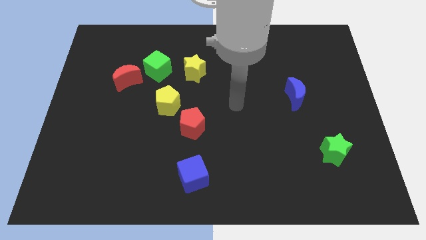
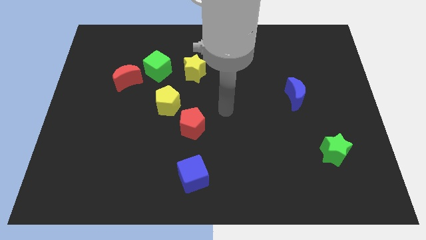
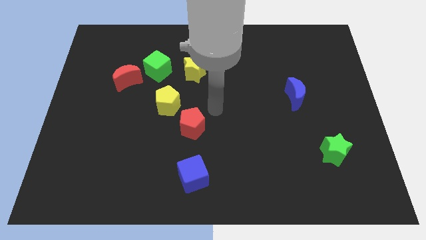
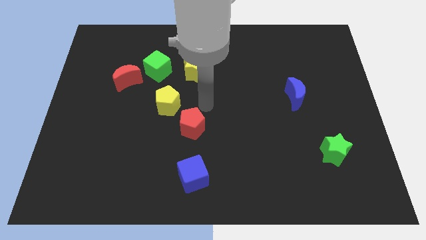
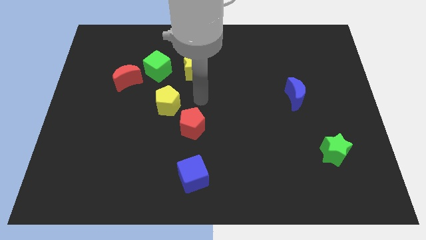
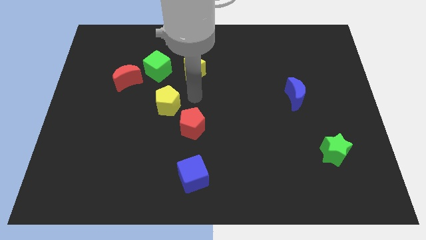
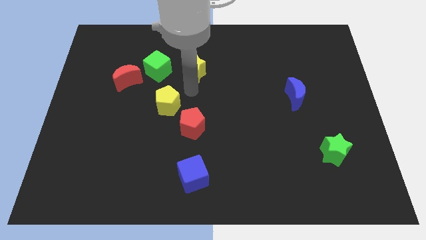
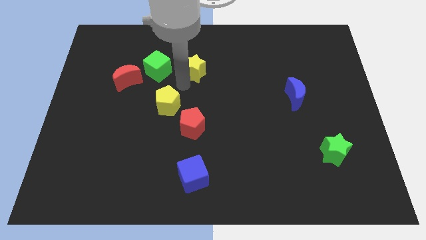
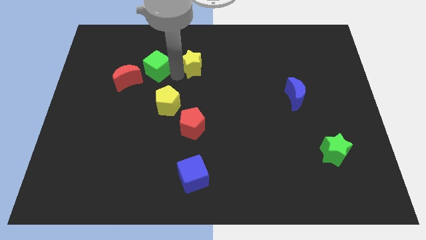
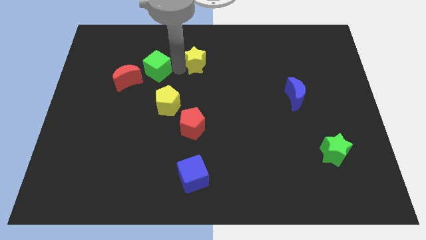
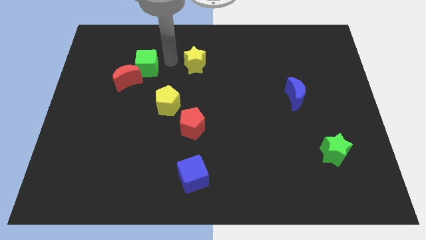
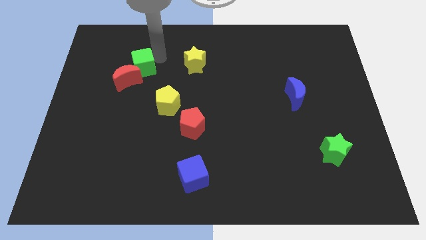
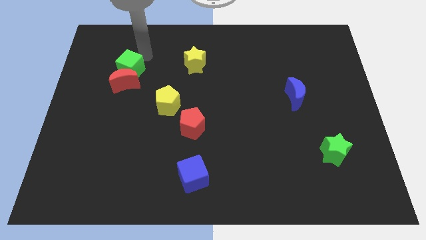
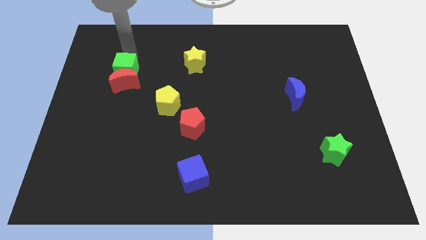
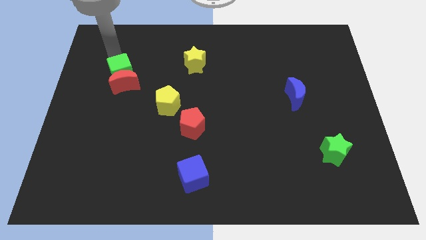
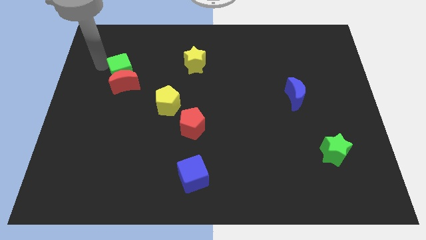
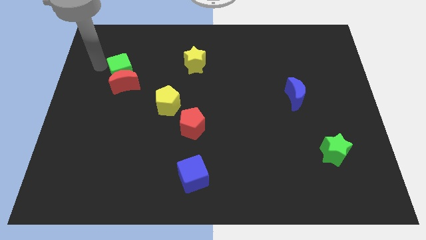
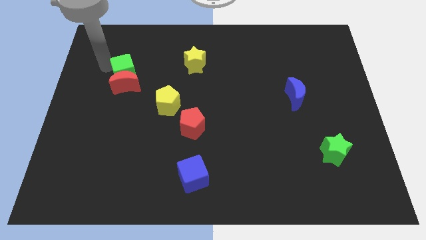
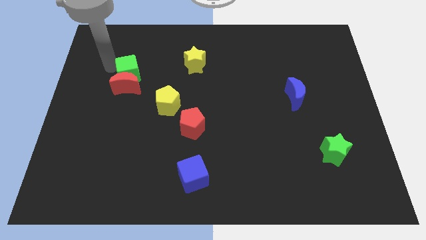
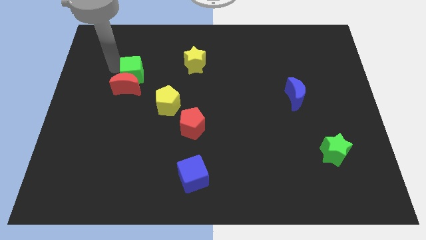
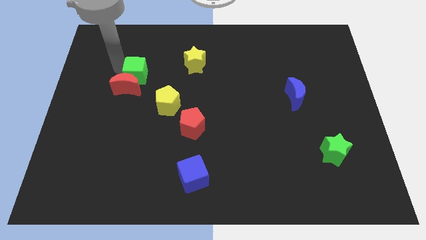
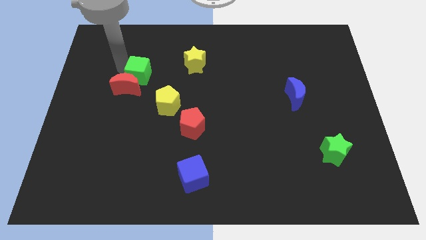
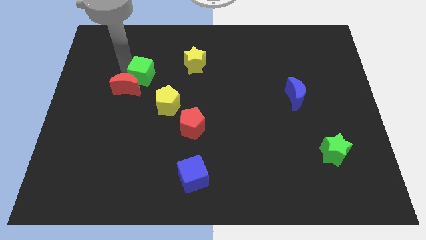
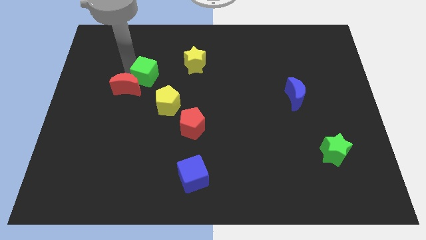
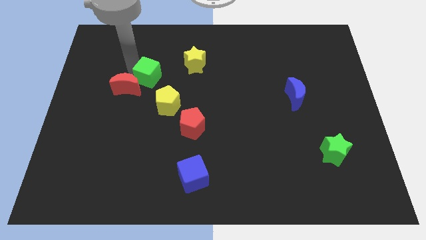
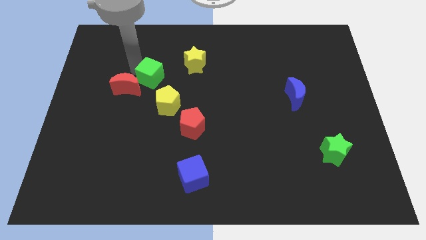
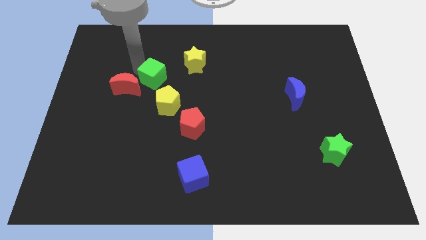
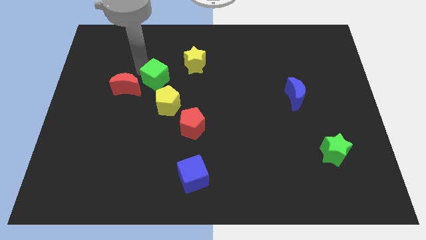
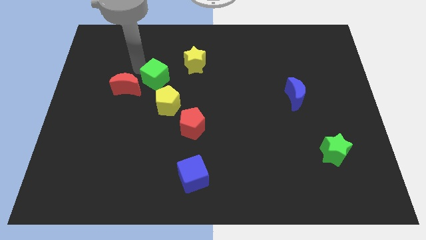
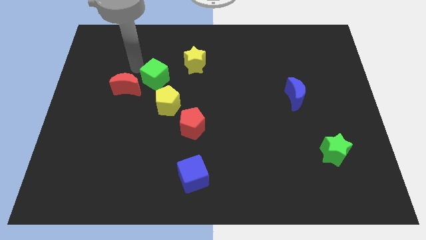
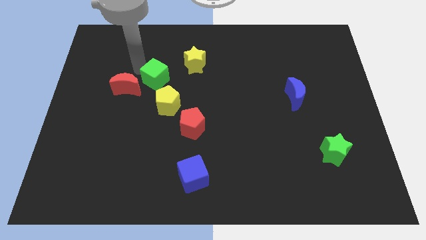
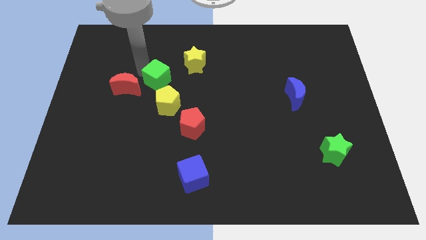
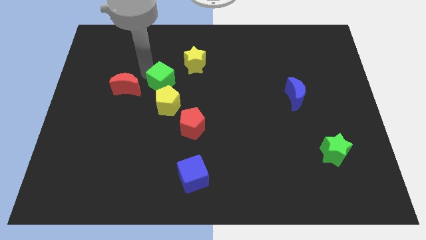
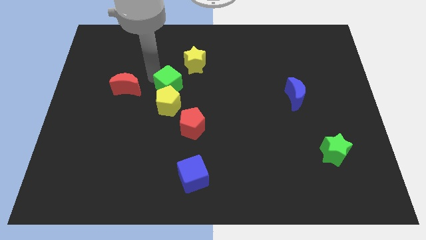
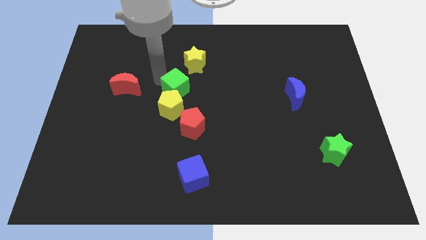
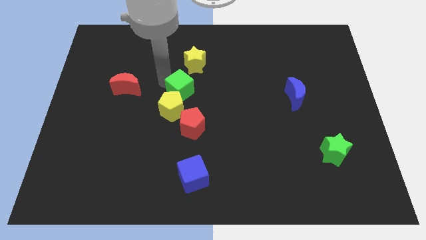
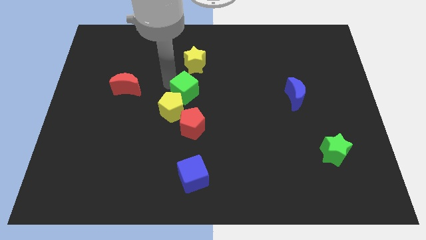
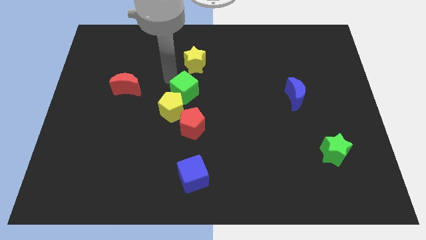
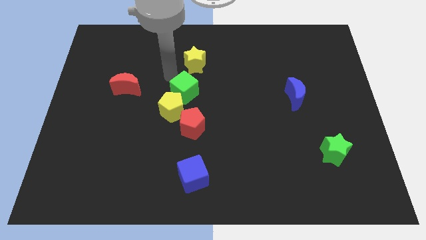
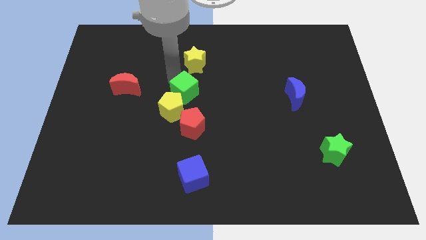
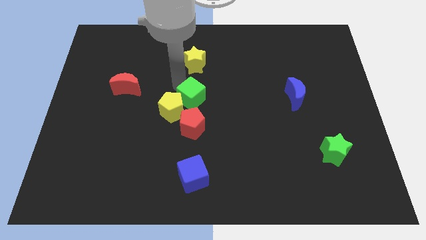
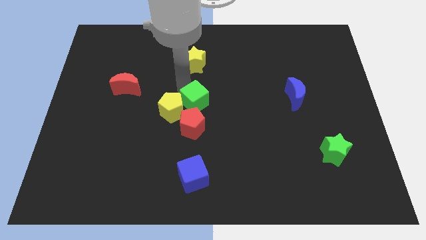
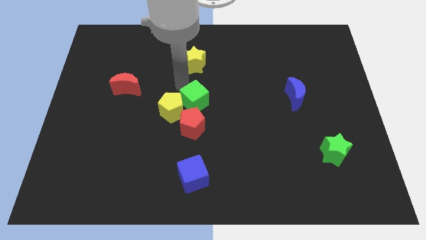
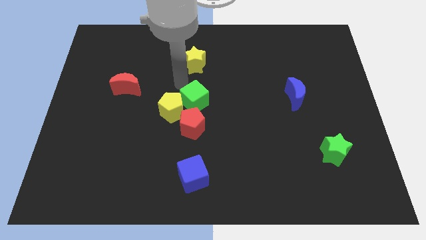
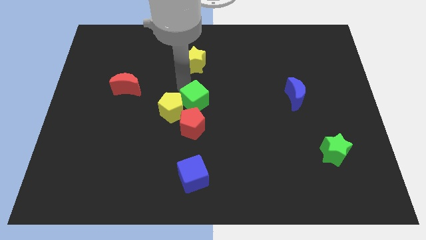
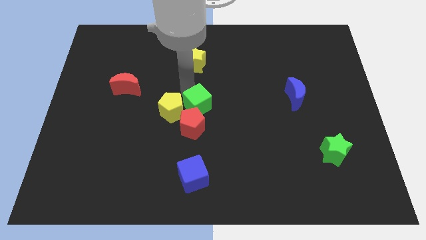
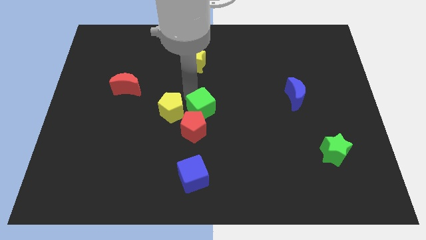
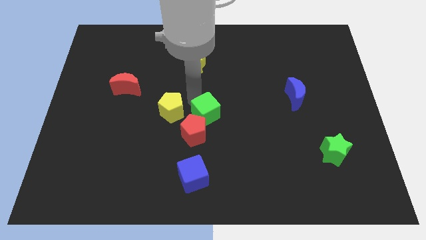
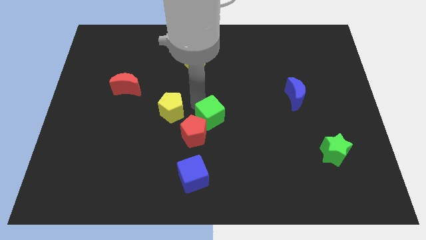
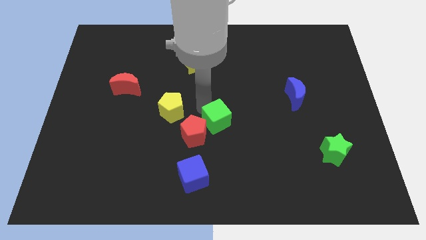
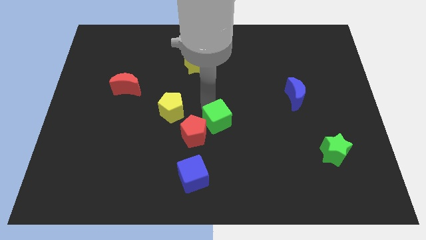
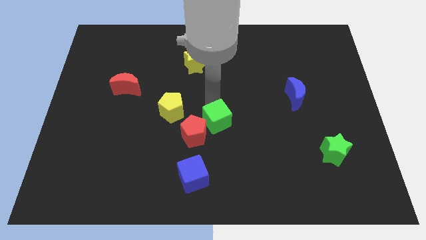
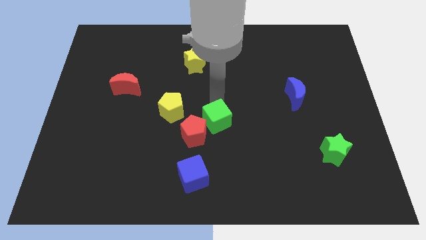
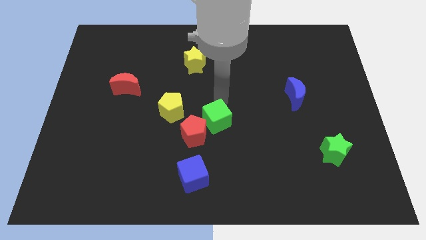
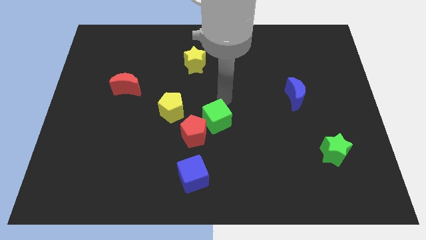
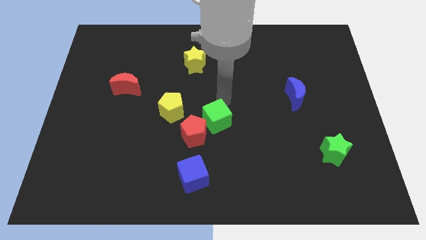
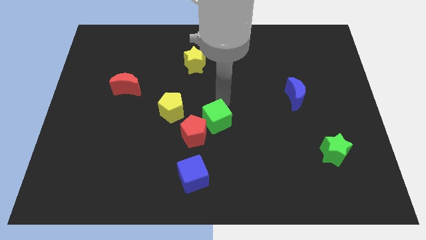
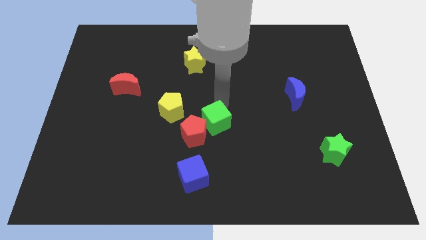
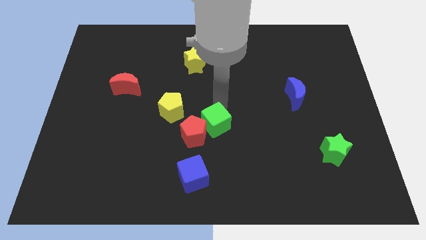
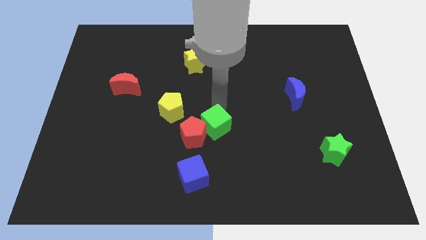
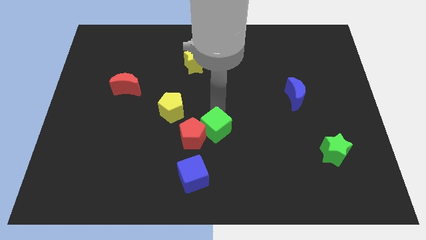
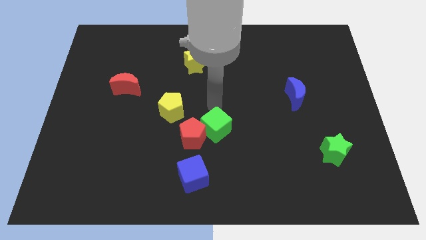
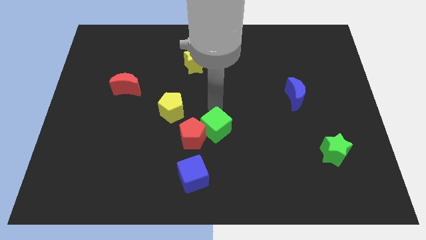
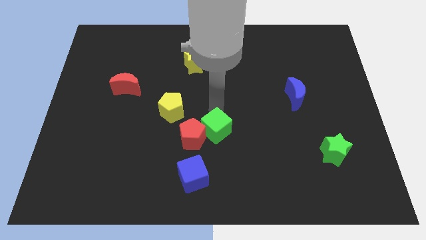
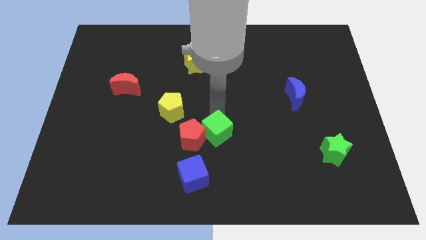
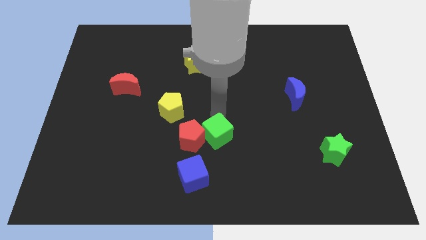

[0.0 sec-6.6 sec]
push the green cube diagonally up and to the right of the blue cube
